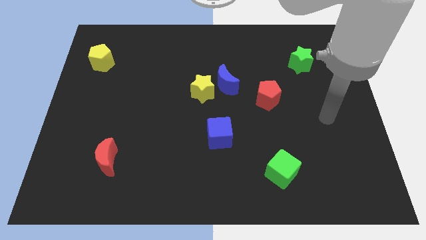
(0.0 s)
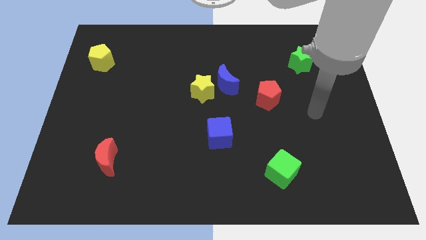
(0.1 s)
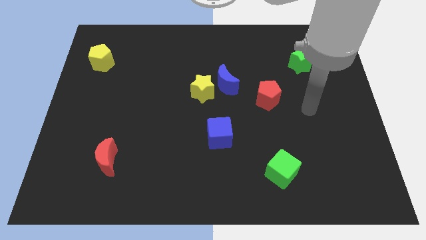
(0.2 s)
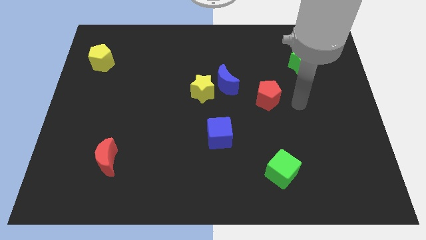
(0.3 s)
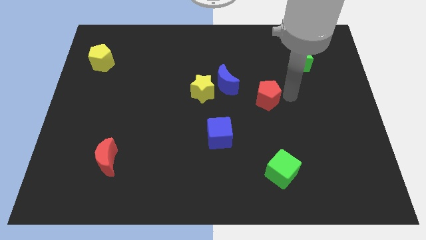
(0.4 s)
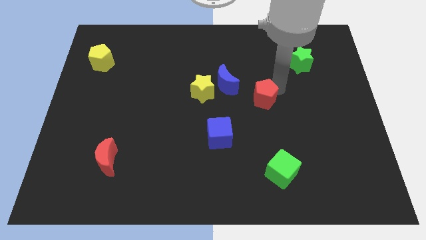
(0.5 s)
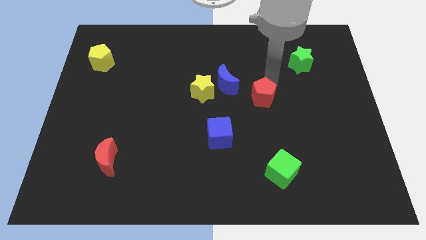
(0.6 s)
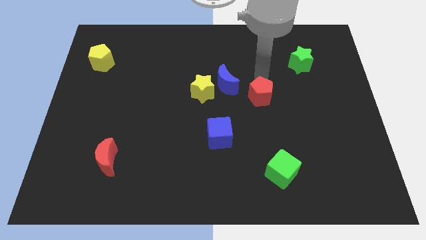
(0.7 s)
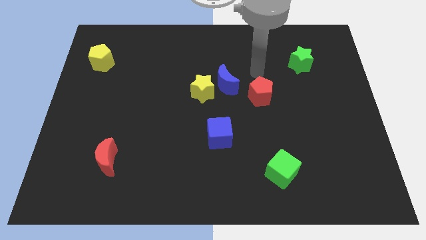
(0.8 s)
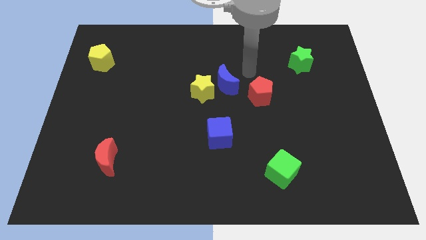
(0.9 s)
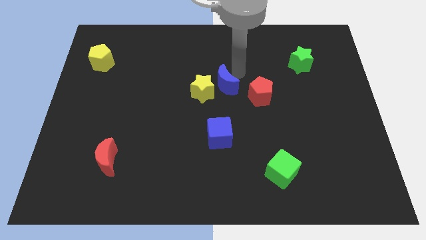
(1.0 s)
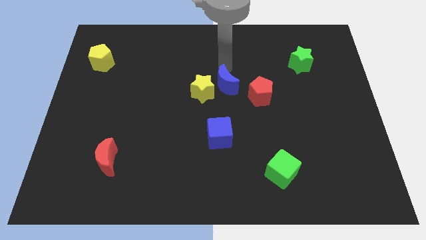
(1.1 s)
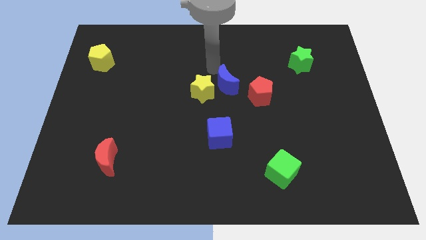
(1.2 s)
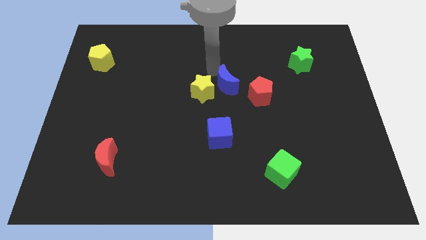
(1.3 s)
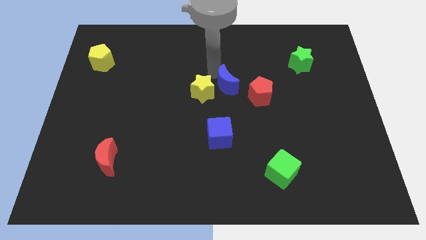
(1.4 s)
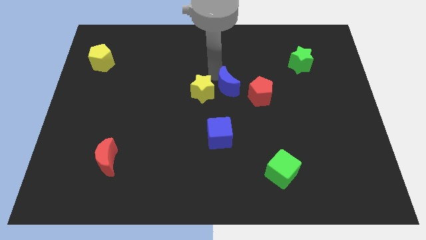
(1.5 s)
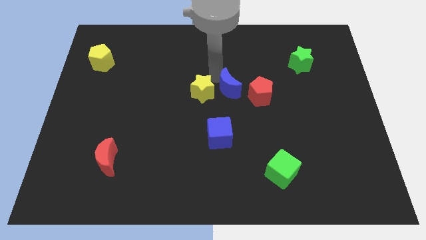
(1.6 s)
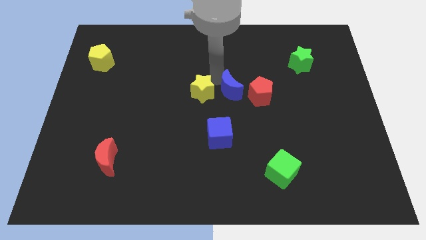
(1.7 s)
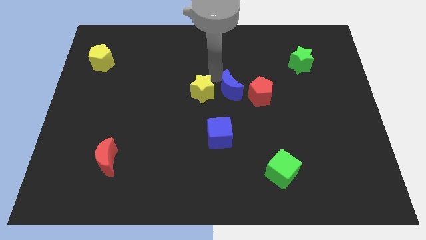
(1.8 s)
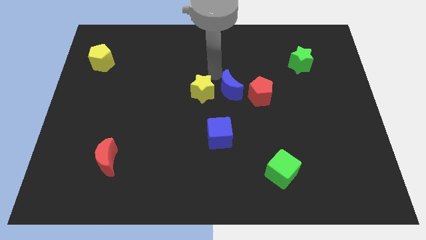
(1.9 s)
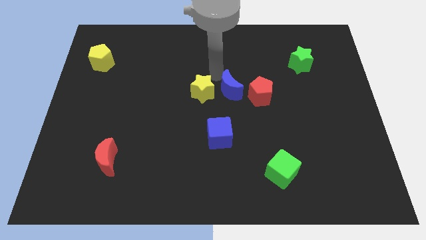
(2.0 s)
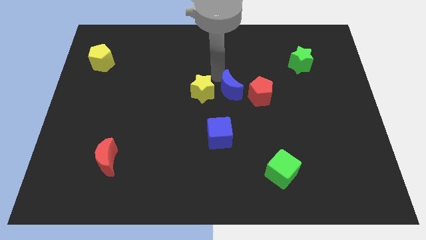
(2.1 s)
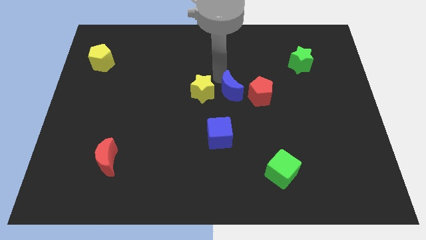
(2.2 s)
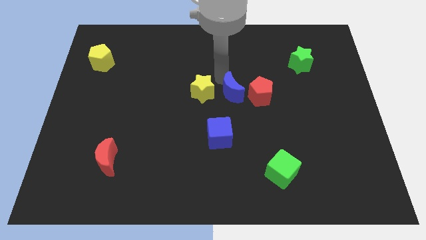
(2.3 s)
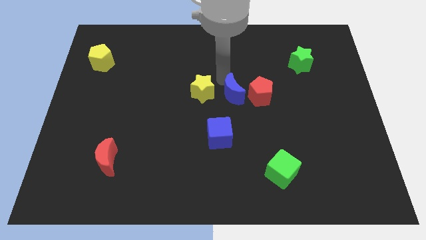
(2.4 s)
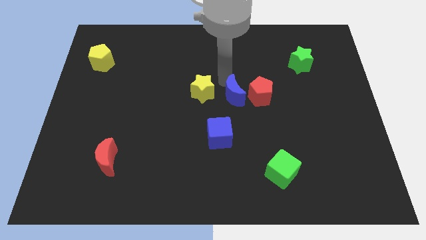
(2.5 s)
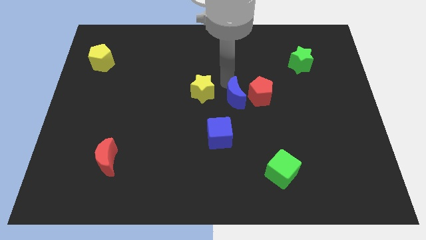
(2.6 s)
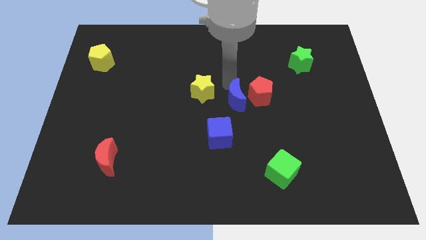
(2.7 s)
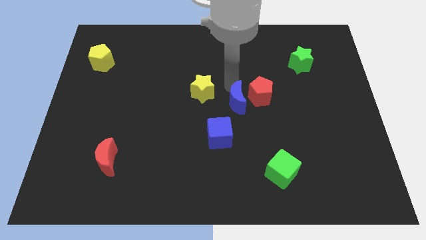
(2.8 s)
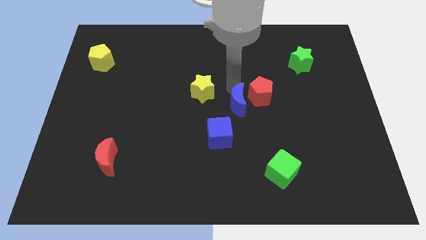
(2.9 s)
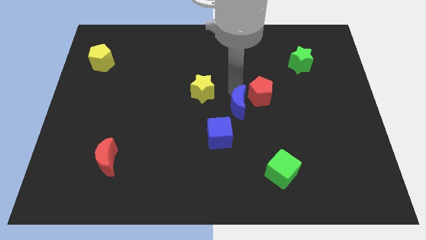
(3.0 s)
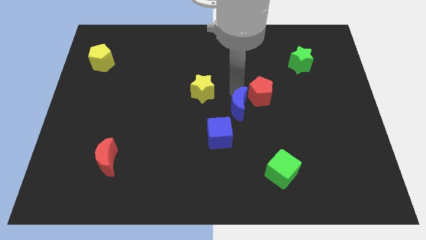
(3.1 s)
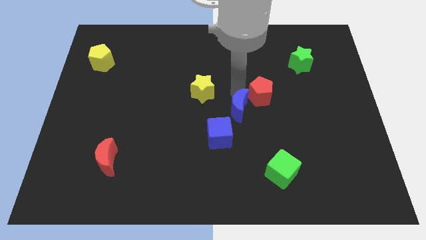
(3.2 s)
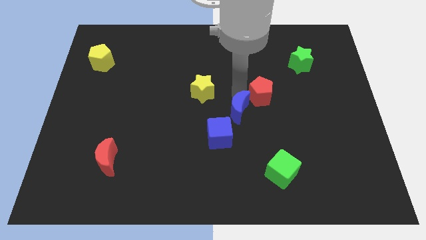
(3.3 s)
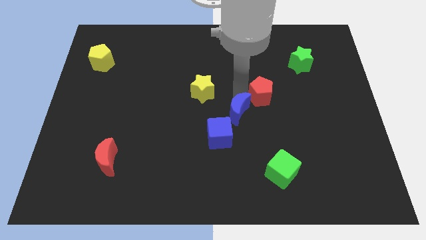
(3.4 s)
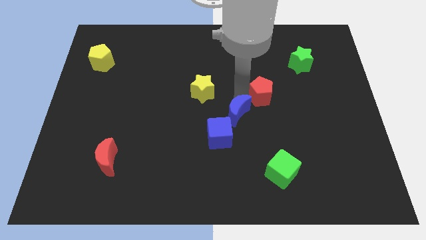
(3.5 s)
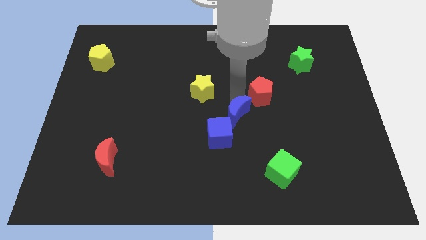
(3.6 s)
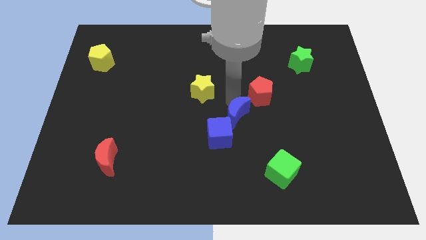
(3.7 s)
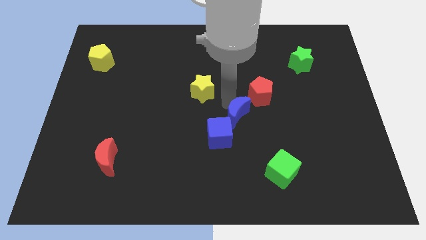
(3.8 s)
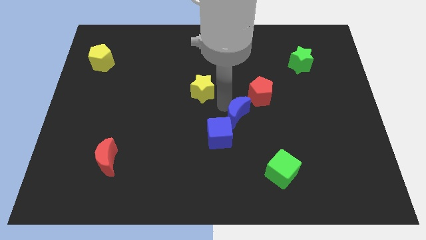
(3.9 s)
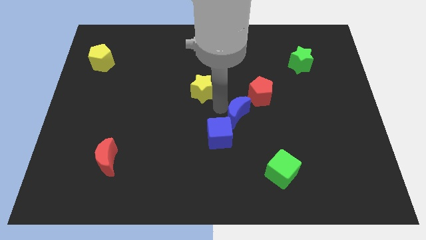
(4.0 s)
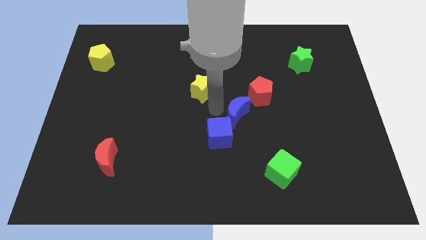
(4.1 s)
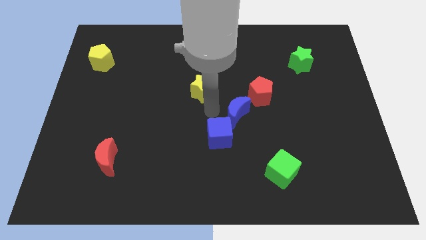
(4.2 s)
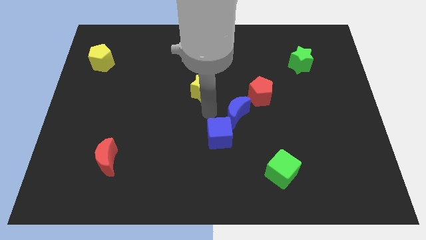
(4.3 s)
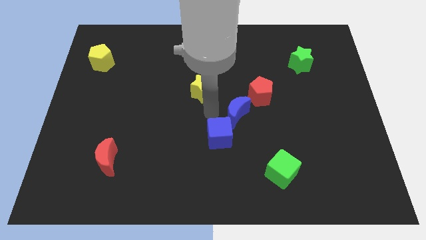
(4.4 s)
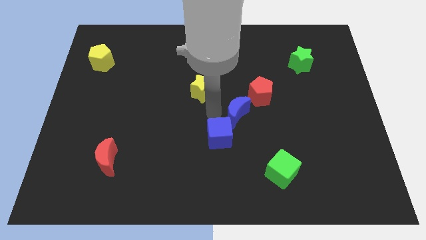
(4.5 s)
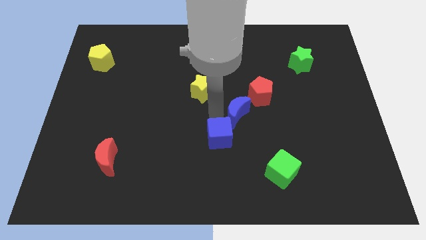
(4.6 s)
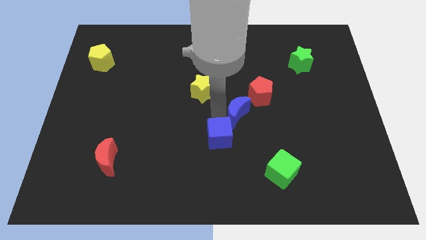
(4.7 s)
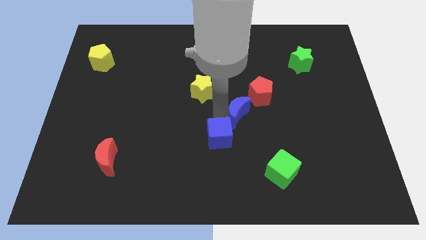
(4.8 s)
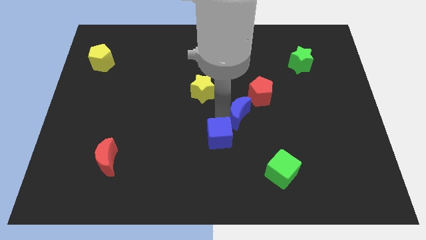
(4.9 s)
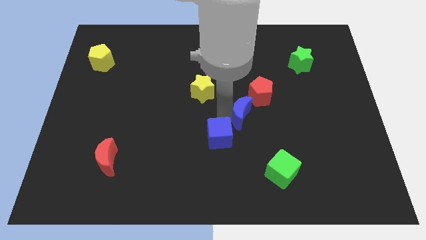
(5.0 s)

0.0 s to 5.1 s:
move the blue moon to the bottom side of the red pentagon

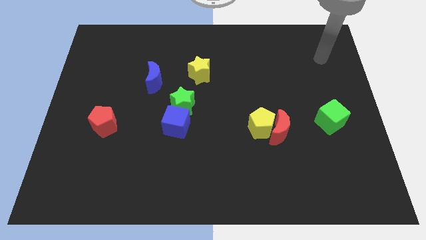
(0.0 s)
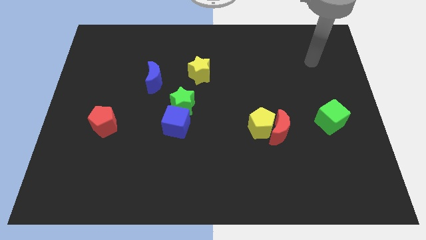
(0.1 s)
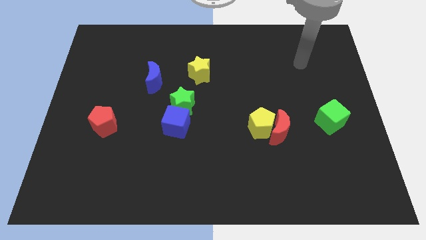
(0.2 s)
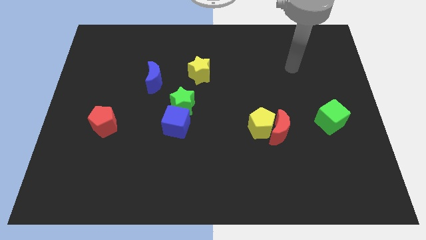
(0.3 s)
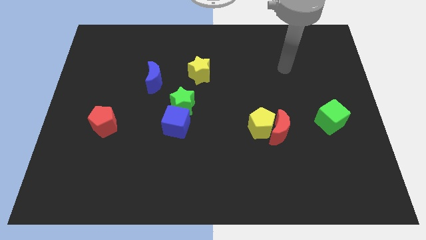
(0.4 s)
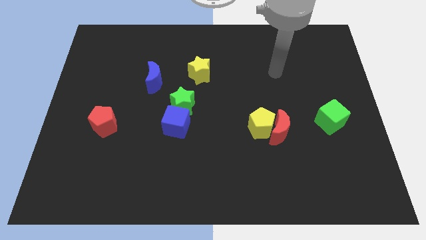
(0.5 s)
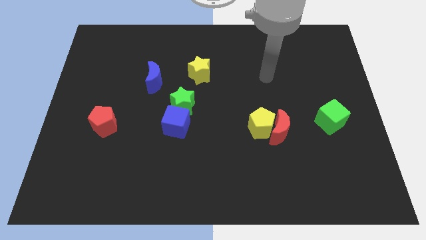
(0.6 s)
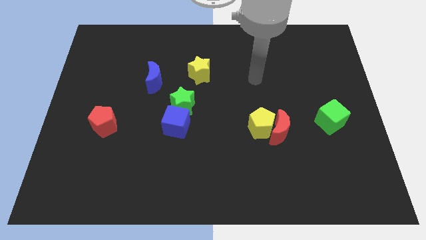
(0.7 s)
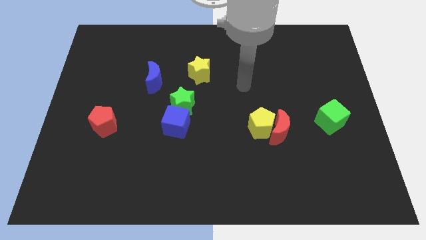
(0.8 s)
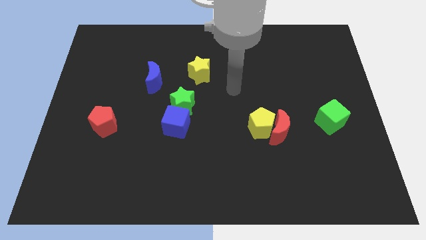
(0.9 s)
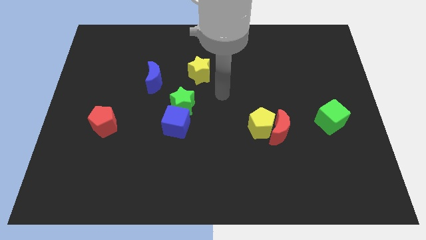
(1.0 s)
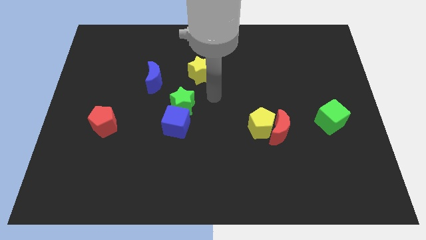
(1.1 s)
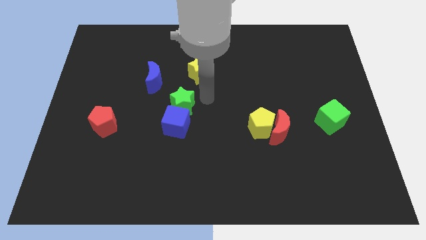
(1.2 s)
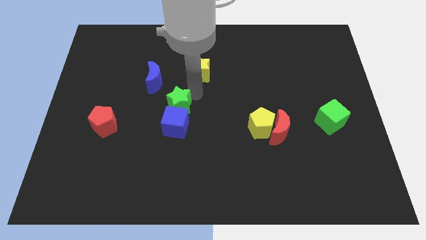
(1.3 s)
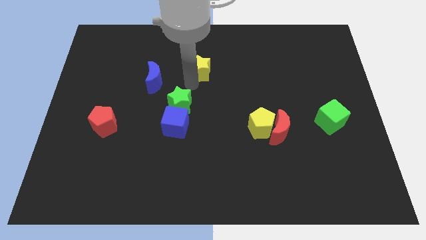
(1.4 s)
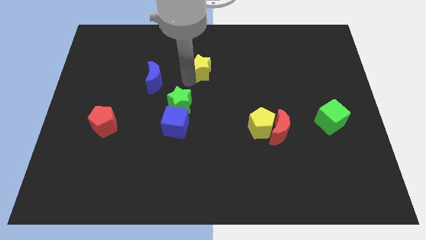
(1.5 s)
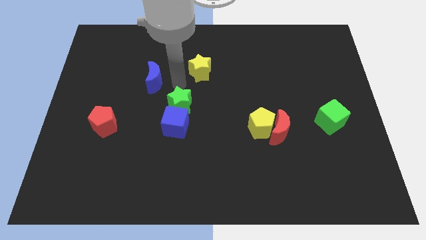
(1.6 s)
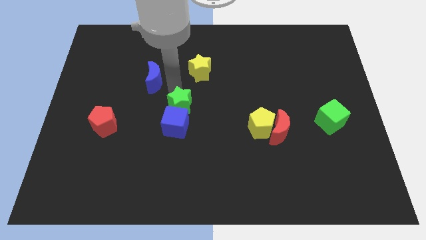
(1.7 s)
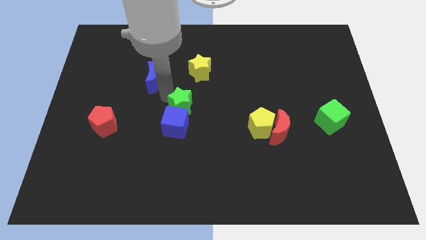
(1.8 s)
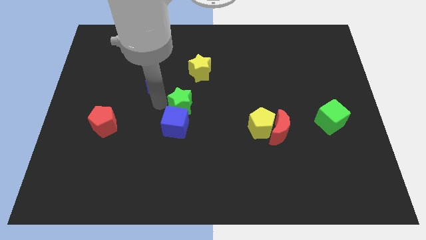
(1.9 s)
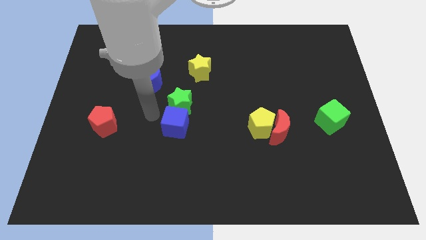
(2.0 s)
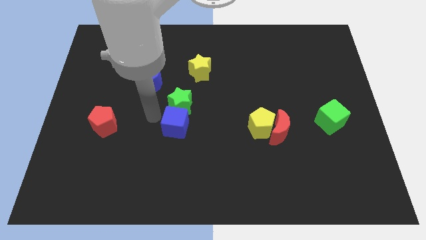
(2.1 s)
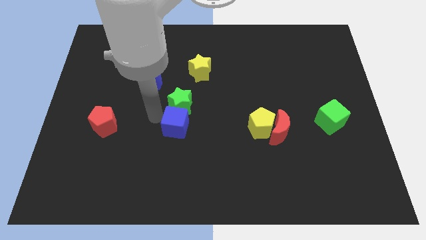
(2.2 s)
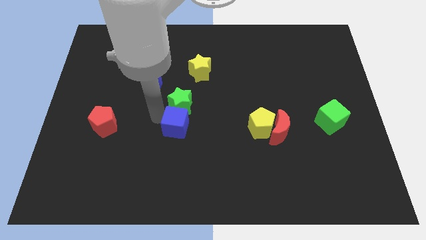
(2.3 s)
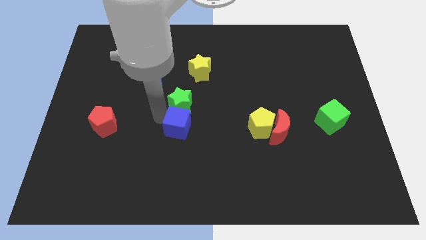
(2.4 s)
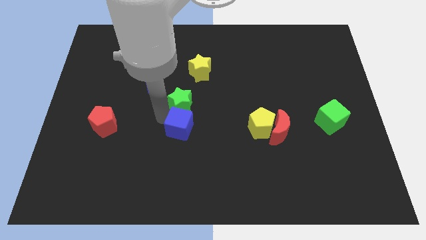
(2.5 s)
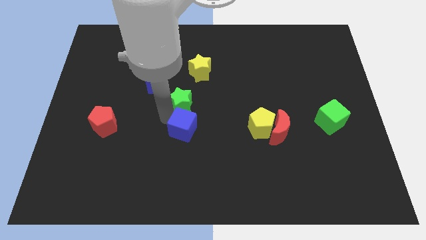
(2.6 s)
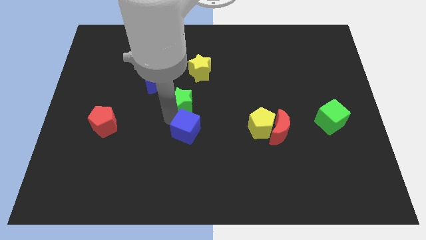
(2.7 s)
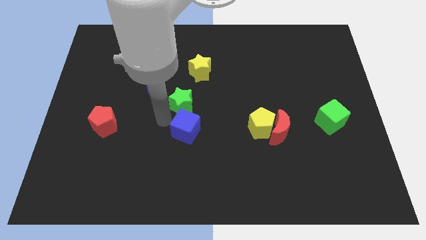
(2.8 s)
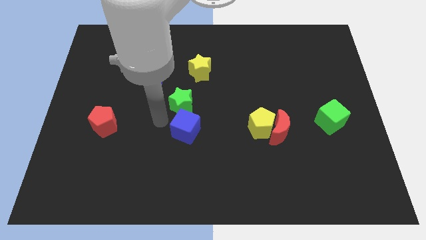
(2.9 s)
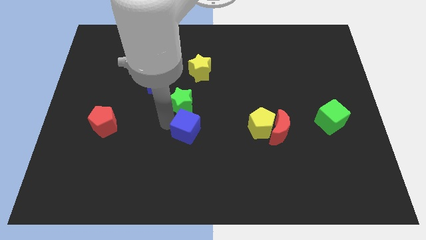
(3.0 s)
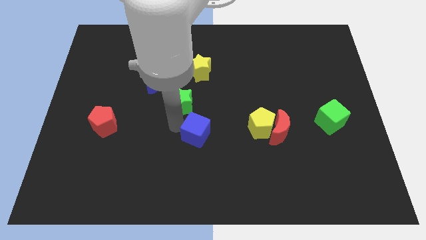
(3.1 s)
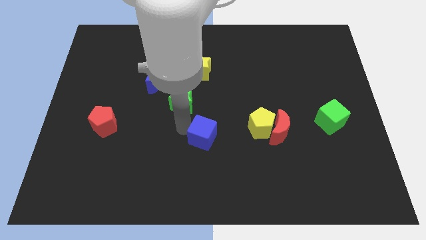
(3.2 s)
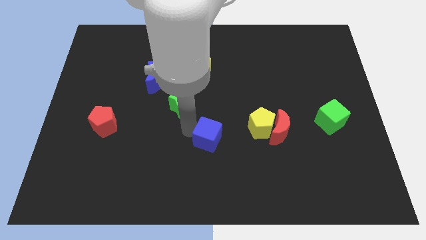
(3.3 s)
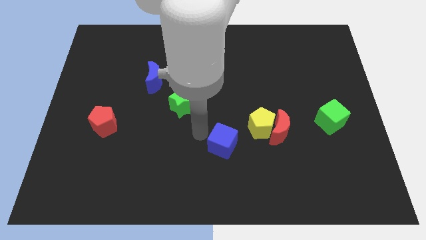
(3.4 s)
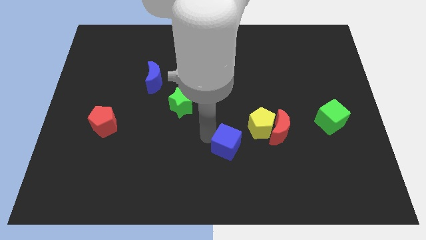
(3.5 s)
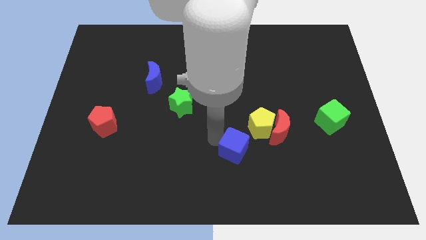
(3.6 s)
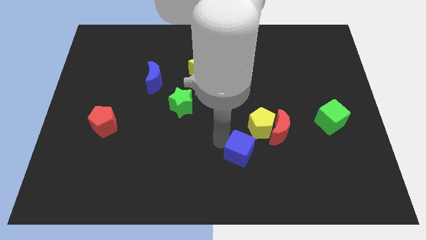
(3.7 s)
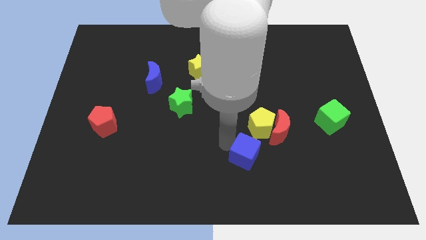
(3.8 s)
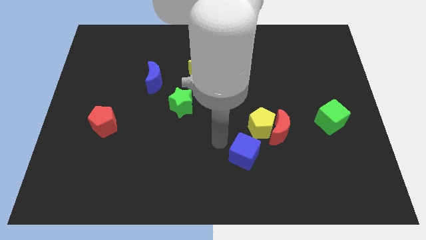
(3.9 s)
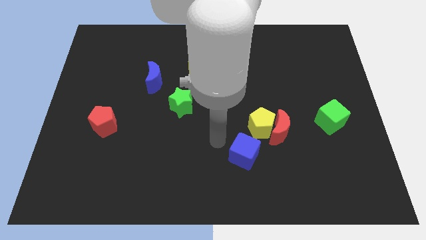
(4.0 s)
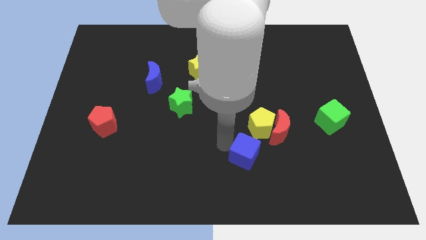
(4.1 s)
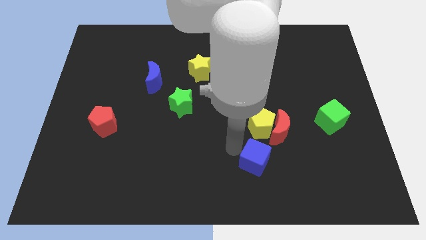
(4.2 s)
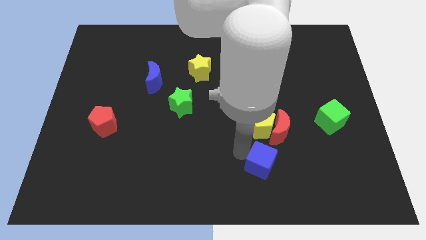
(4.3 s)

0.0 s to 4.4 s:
slide the blue cube to the bottom side of the red moon
